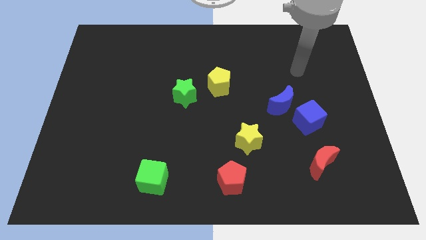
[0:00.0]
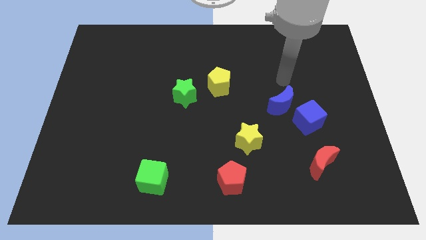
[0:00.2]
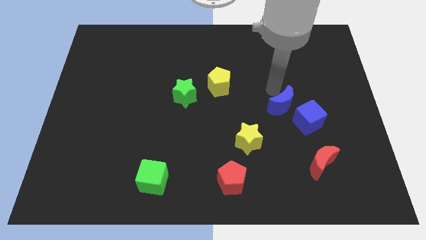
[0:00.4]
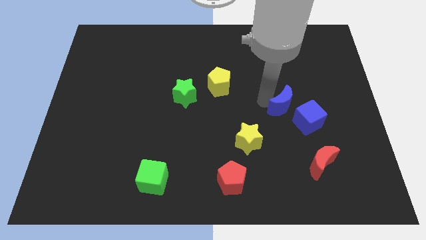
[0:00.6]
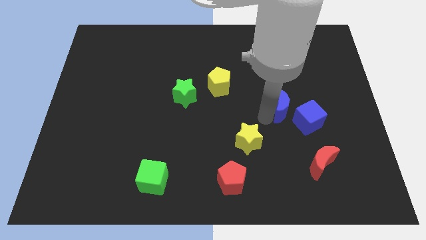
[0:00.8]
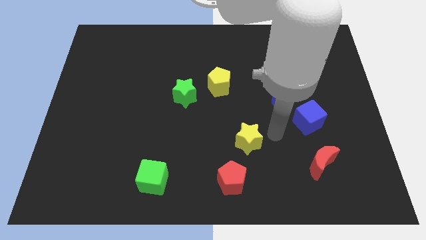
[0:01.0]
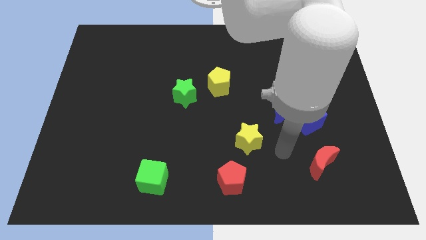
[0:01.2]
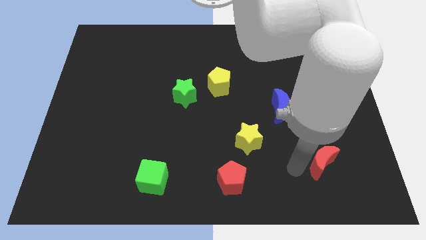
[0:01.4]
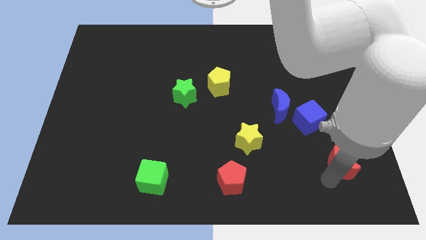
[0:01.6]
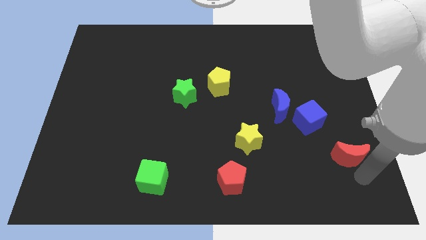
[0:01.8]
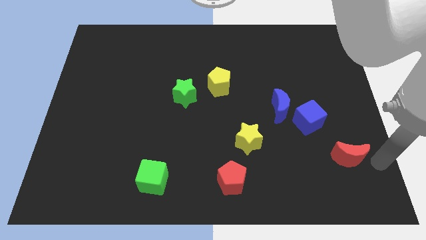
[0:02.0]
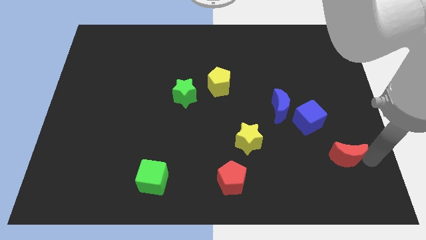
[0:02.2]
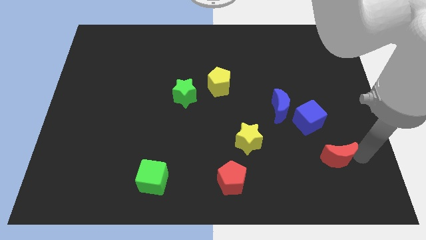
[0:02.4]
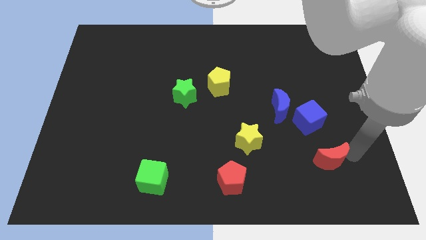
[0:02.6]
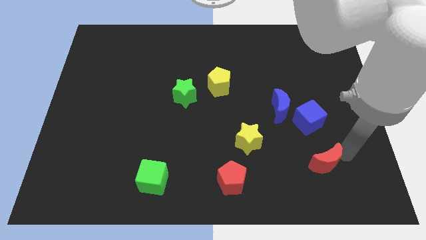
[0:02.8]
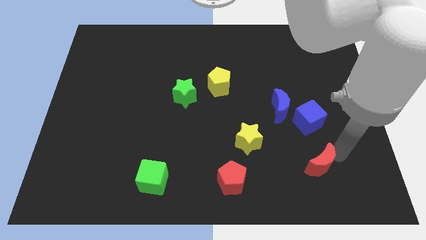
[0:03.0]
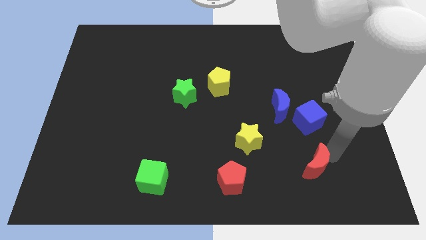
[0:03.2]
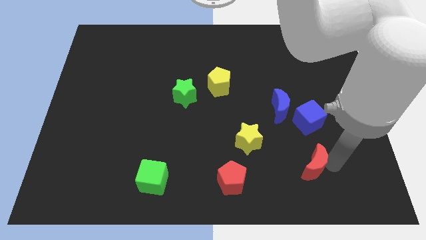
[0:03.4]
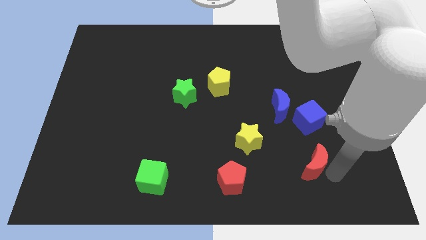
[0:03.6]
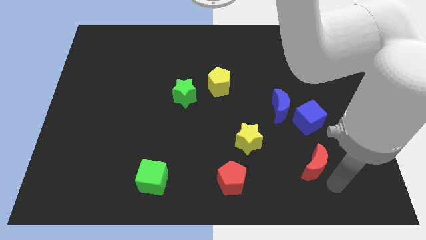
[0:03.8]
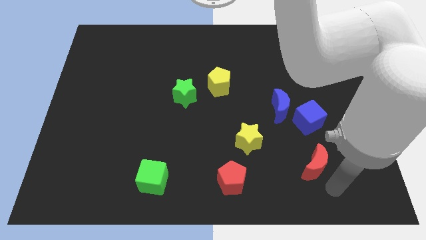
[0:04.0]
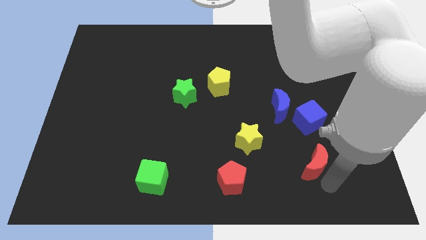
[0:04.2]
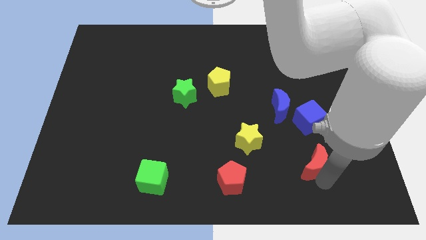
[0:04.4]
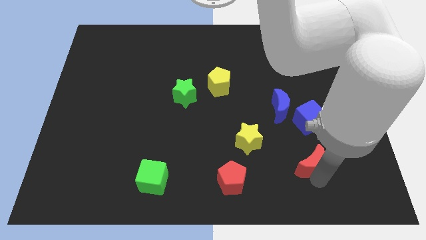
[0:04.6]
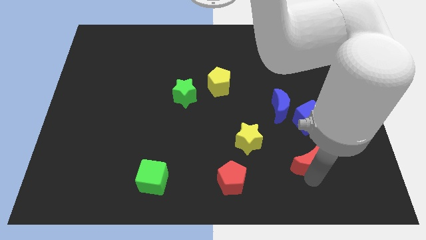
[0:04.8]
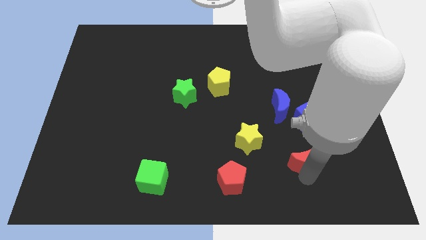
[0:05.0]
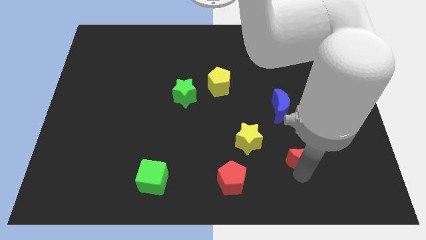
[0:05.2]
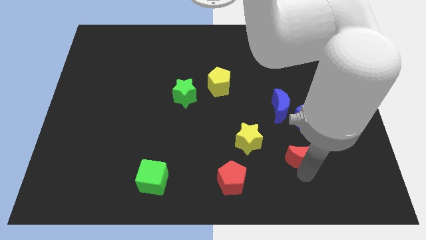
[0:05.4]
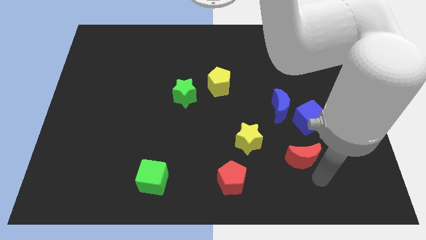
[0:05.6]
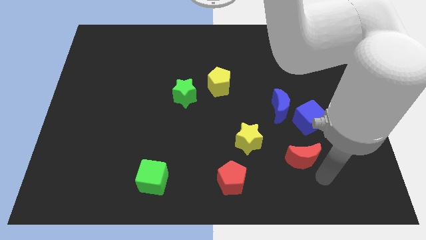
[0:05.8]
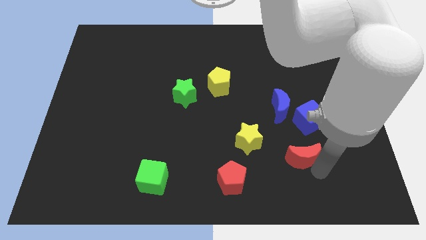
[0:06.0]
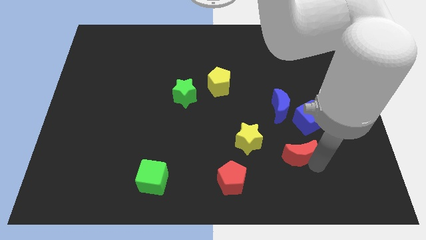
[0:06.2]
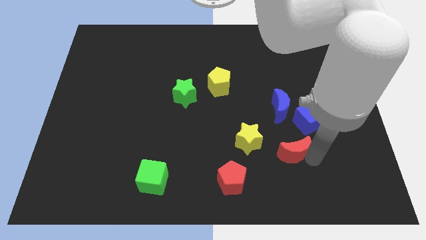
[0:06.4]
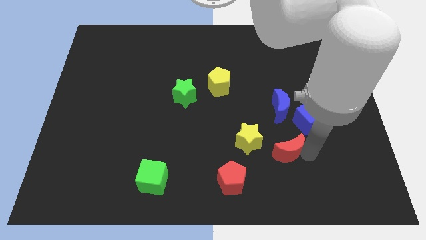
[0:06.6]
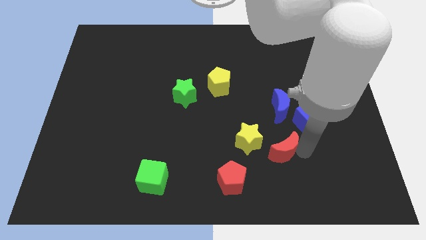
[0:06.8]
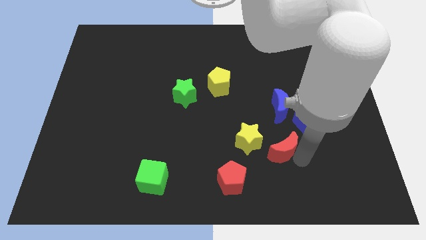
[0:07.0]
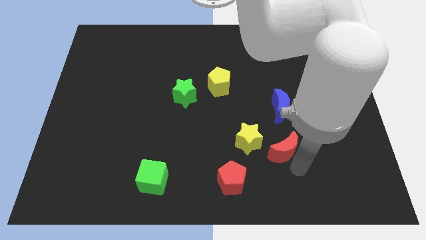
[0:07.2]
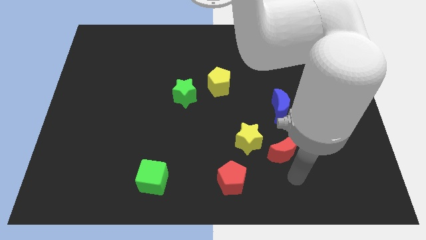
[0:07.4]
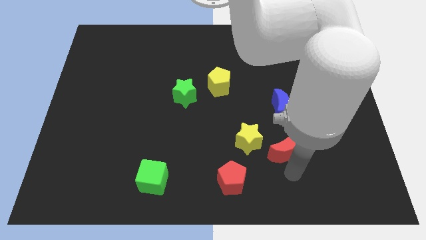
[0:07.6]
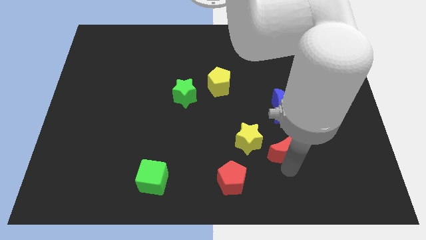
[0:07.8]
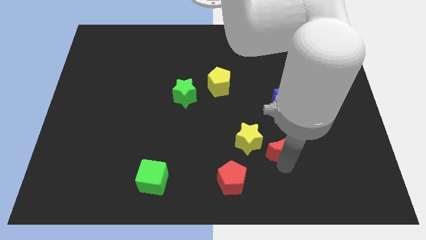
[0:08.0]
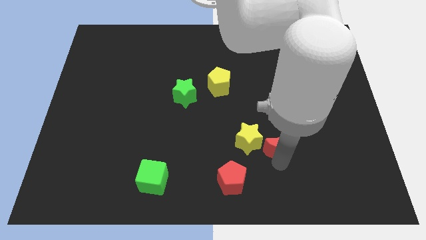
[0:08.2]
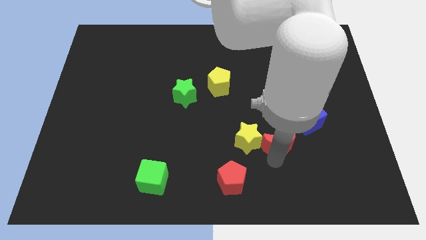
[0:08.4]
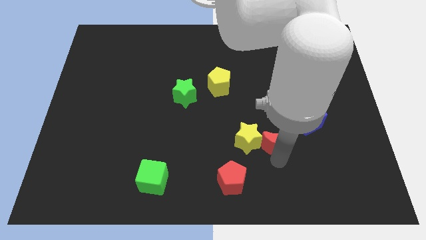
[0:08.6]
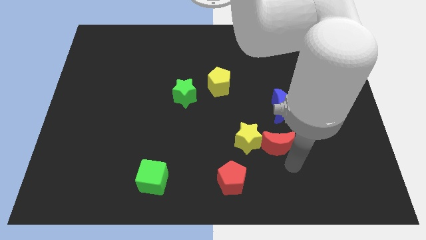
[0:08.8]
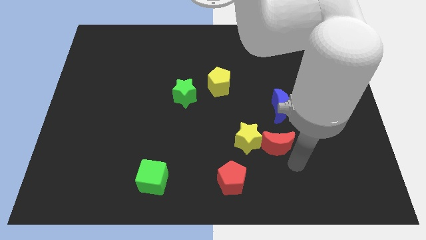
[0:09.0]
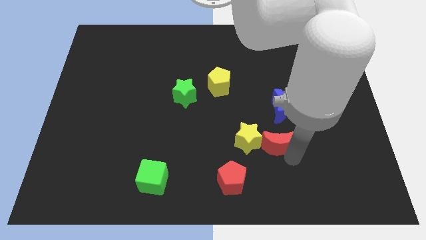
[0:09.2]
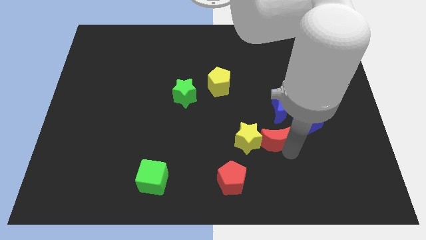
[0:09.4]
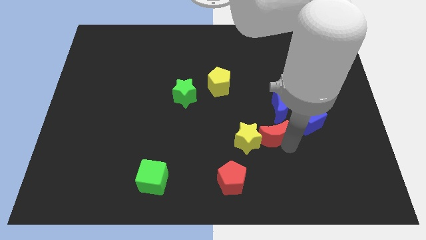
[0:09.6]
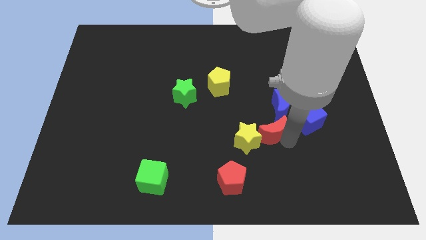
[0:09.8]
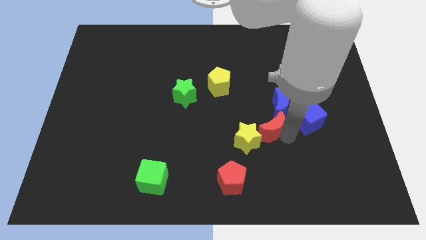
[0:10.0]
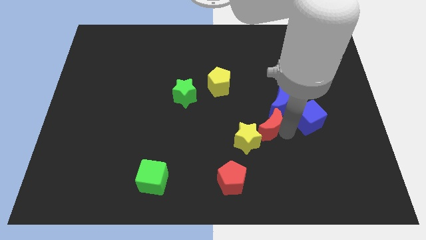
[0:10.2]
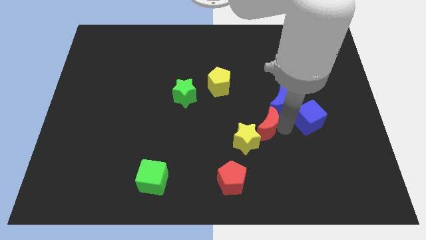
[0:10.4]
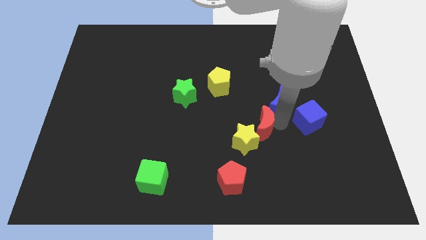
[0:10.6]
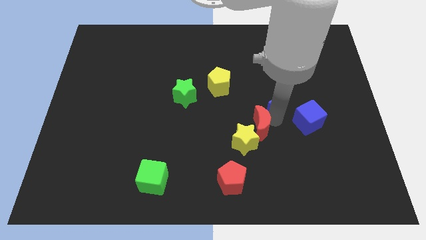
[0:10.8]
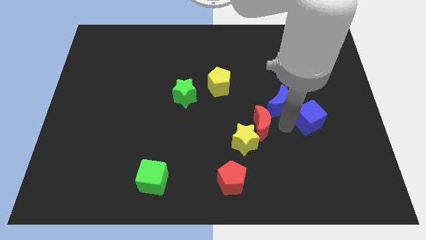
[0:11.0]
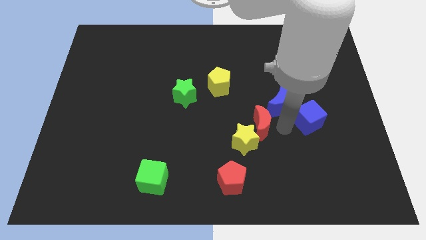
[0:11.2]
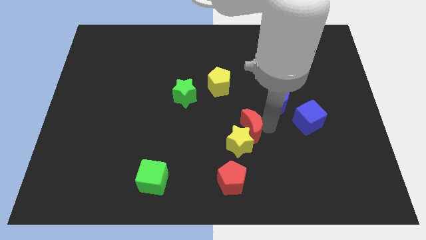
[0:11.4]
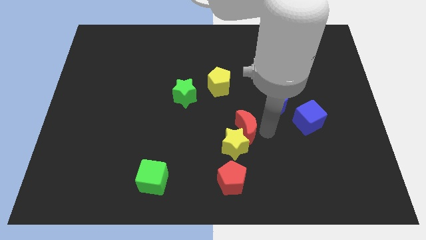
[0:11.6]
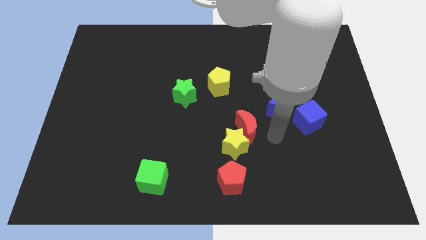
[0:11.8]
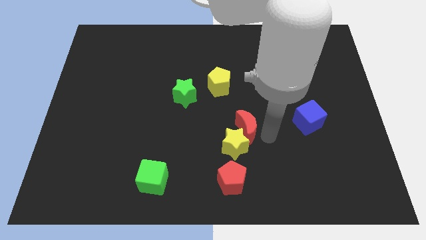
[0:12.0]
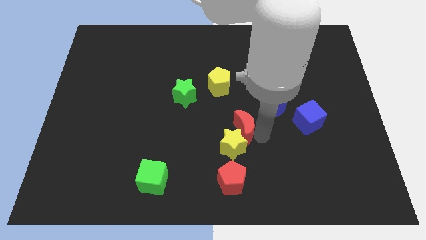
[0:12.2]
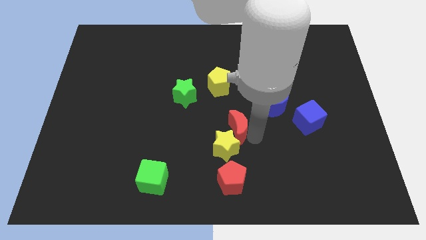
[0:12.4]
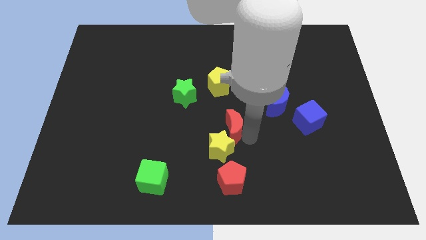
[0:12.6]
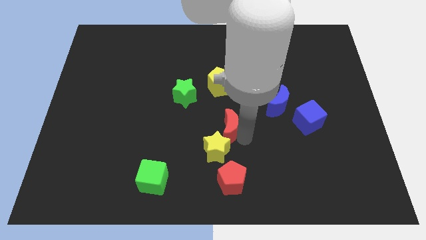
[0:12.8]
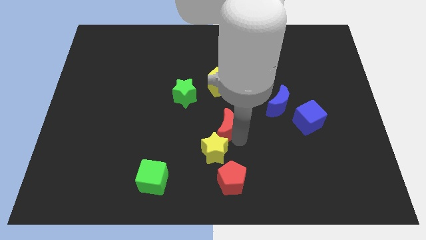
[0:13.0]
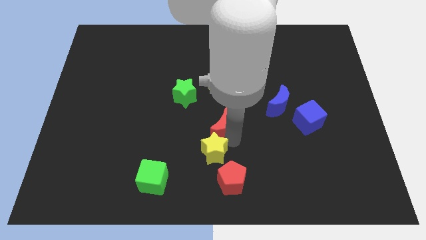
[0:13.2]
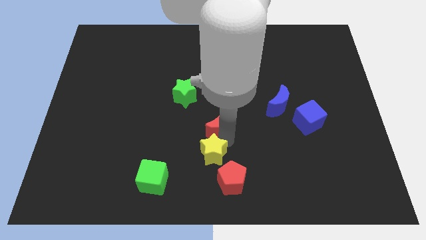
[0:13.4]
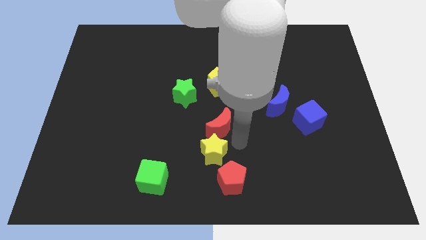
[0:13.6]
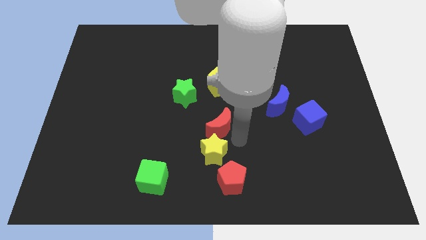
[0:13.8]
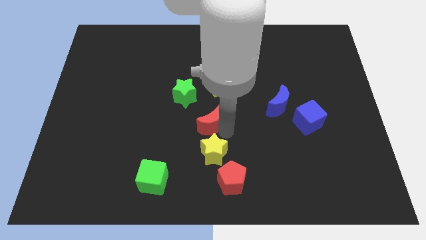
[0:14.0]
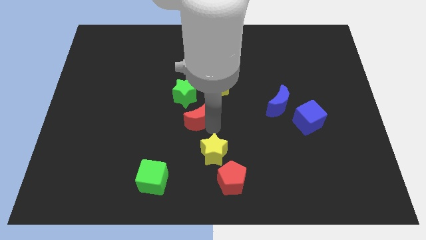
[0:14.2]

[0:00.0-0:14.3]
push the red moon to the bottom left side of the yellow pentagon
